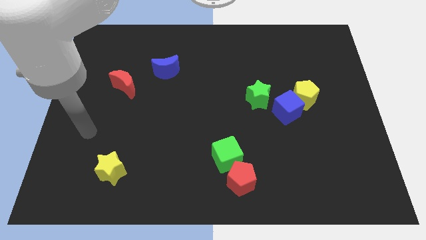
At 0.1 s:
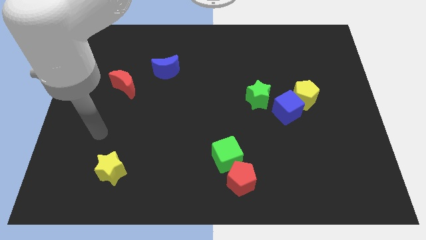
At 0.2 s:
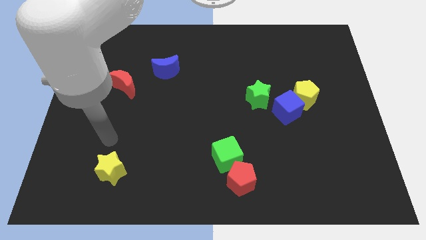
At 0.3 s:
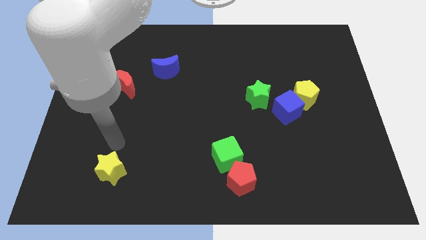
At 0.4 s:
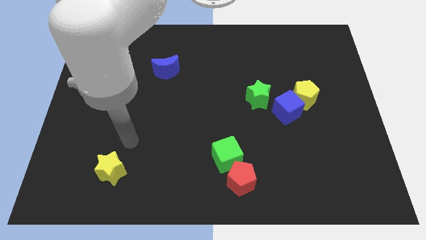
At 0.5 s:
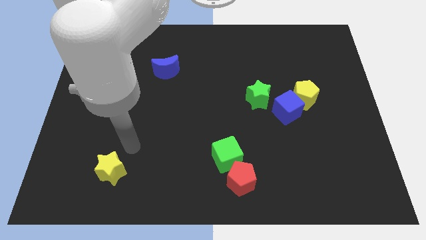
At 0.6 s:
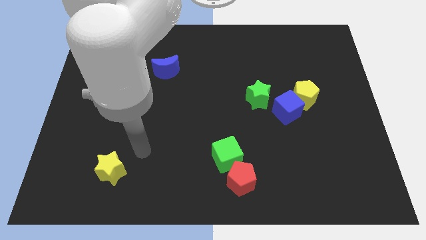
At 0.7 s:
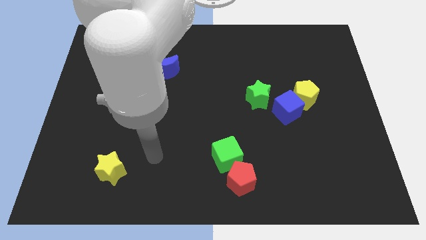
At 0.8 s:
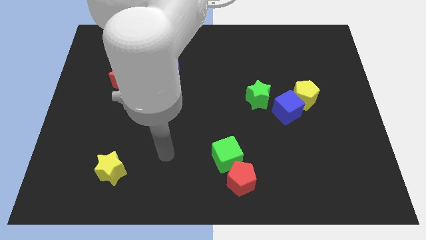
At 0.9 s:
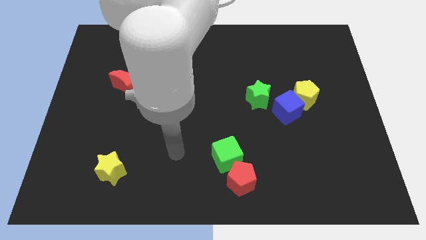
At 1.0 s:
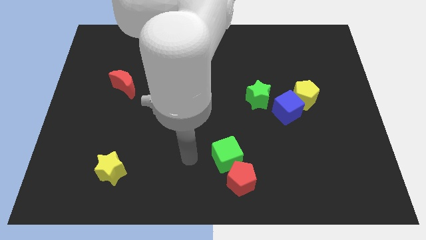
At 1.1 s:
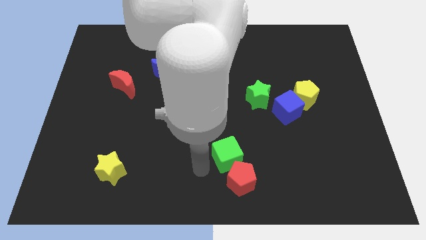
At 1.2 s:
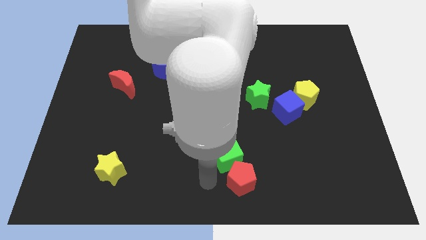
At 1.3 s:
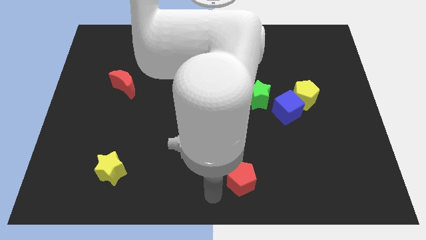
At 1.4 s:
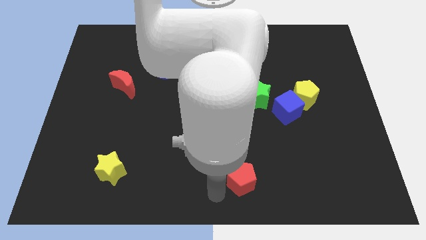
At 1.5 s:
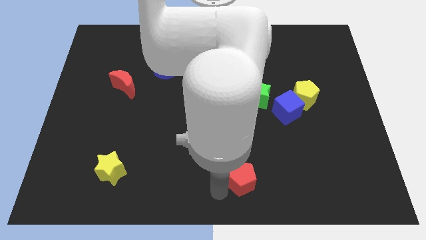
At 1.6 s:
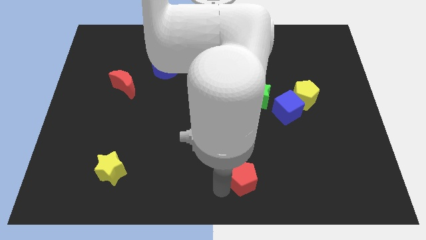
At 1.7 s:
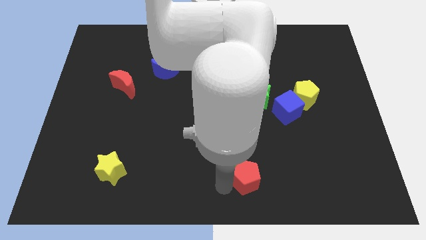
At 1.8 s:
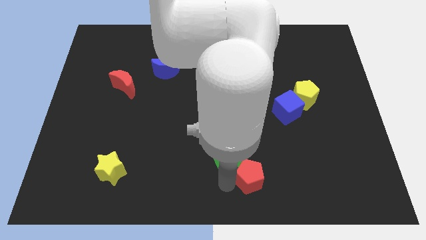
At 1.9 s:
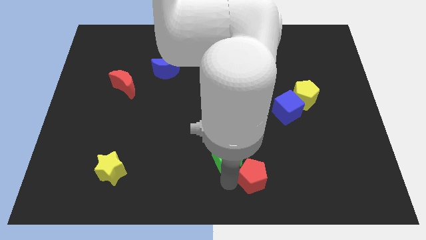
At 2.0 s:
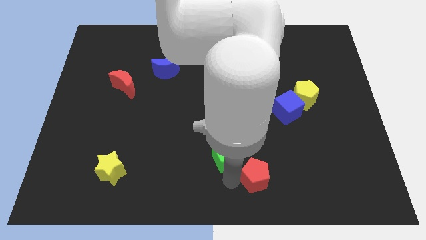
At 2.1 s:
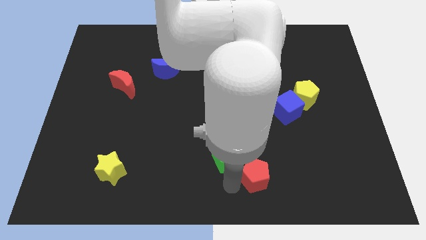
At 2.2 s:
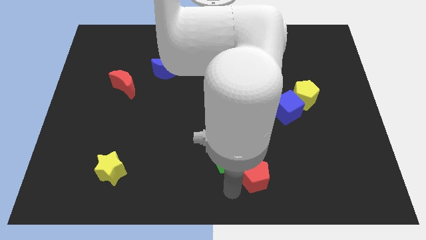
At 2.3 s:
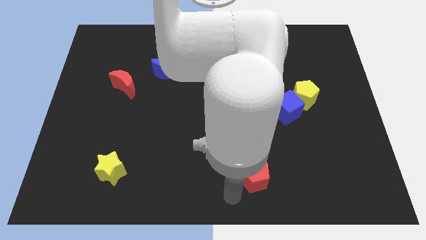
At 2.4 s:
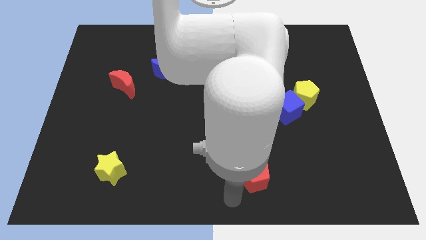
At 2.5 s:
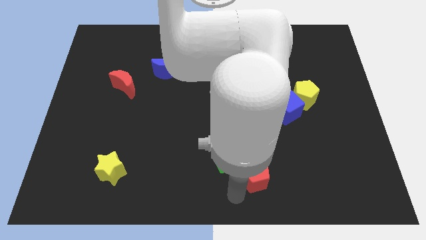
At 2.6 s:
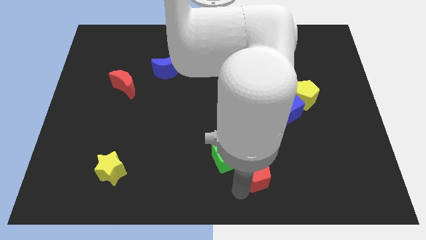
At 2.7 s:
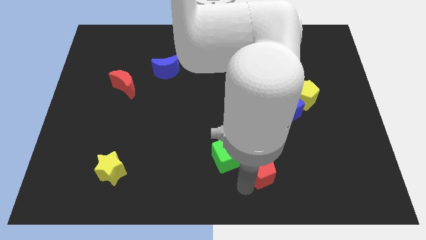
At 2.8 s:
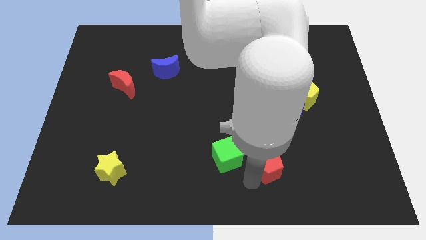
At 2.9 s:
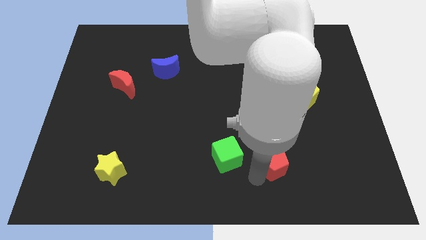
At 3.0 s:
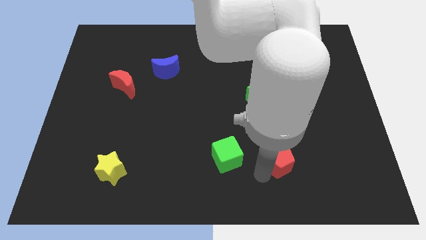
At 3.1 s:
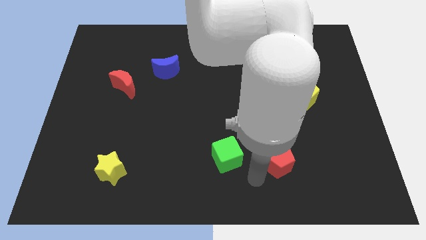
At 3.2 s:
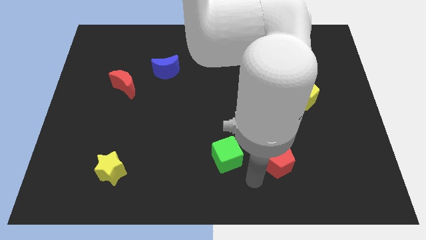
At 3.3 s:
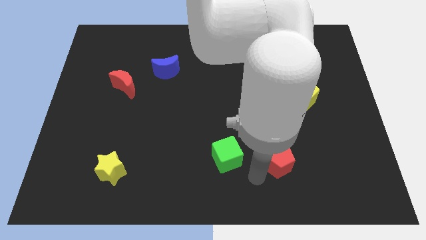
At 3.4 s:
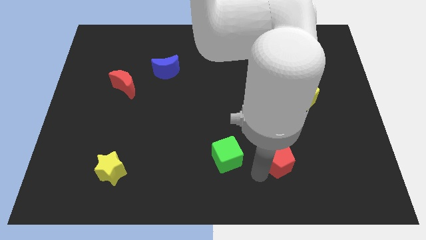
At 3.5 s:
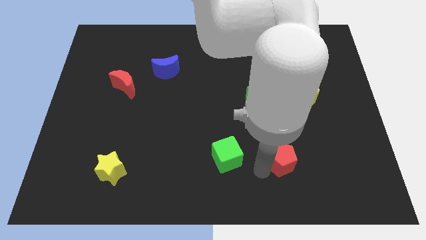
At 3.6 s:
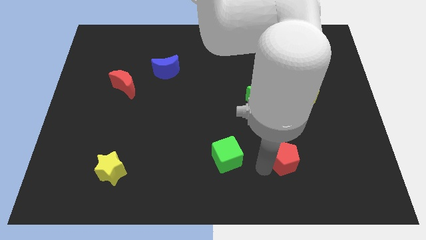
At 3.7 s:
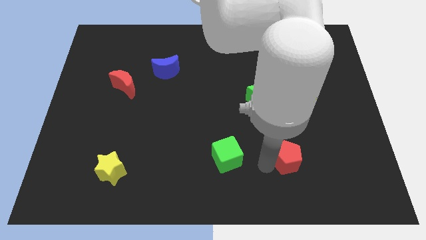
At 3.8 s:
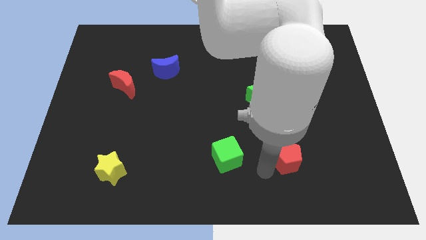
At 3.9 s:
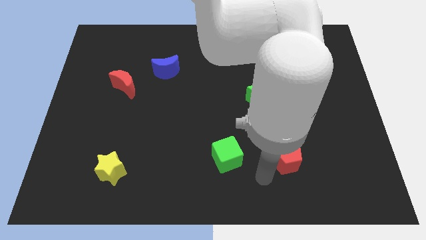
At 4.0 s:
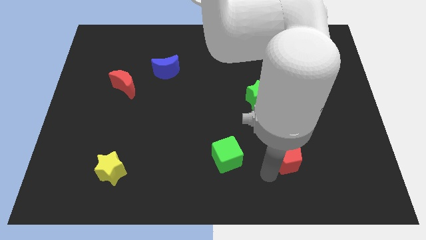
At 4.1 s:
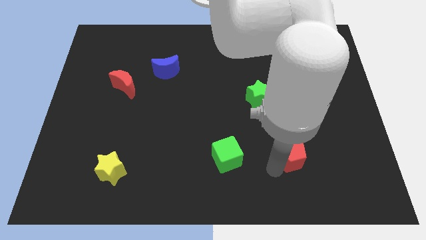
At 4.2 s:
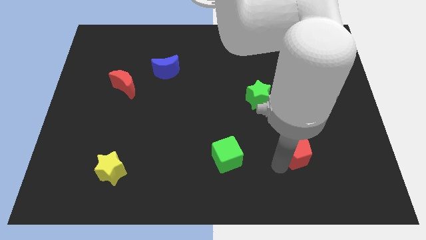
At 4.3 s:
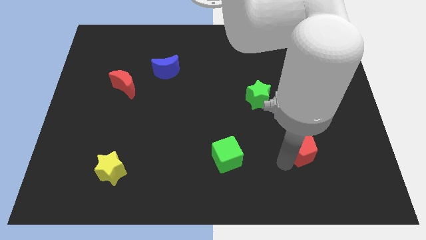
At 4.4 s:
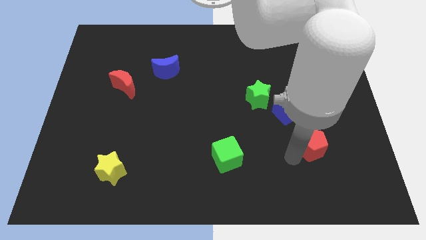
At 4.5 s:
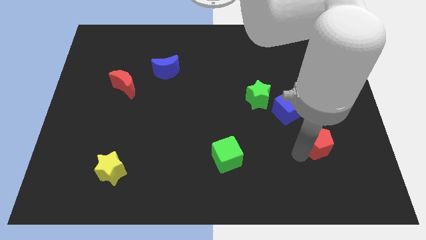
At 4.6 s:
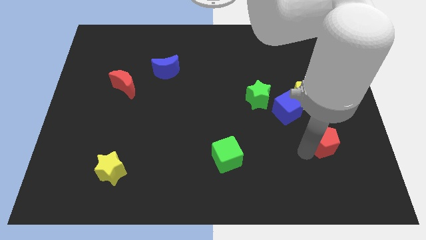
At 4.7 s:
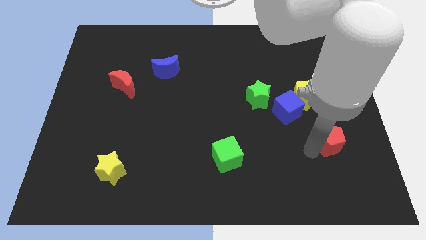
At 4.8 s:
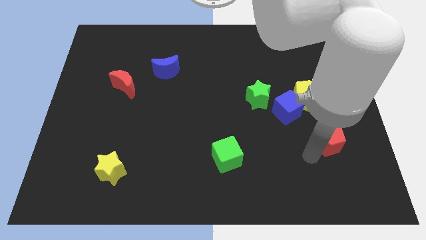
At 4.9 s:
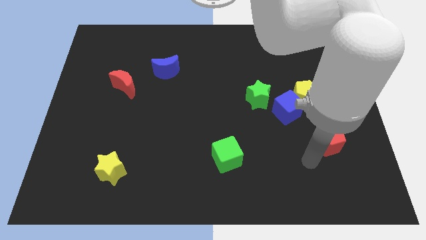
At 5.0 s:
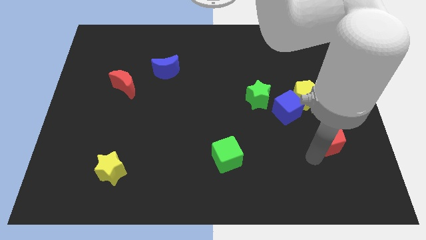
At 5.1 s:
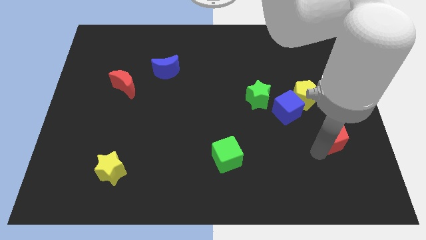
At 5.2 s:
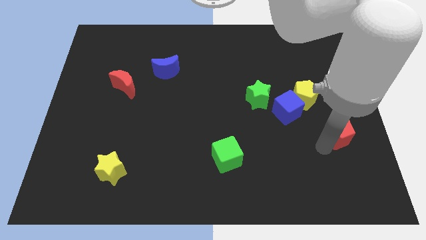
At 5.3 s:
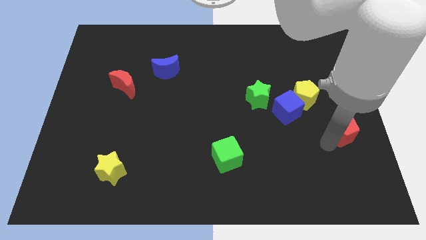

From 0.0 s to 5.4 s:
put the red pentagon to the right side
